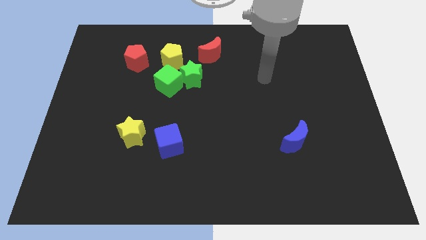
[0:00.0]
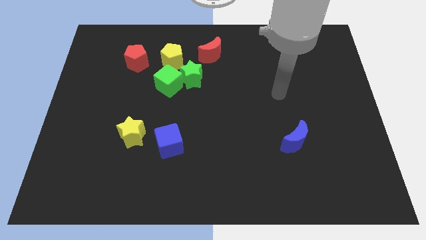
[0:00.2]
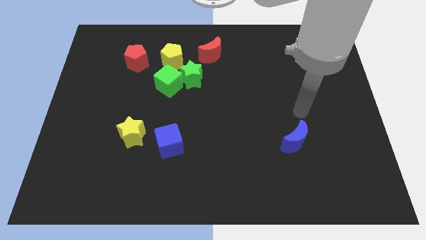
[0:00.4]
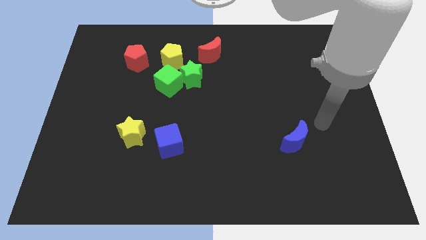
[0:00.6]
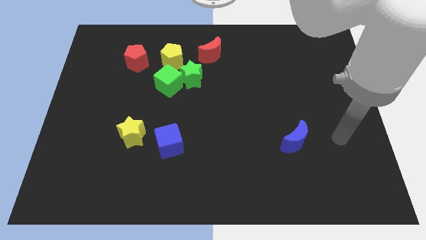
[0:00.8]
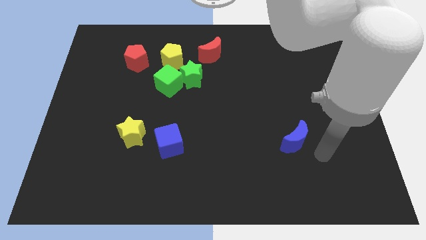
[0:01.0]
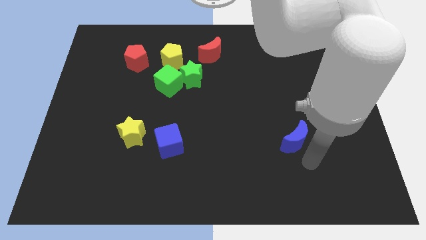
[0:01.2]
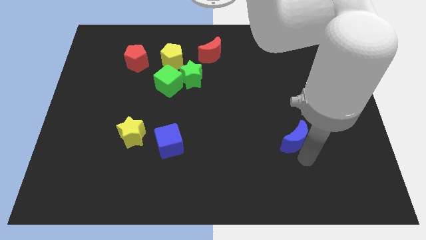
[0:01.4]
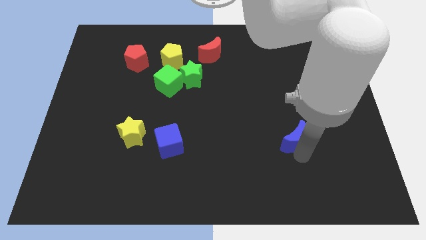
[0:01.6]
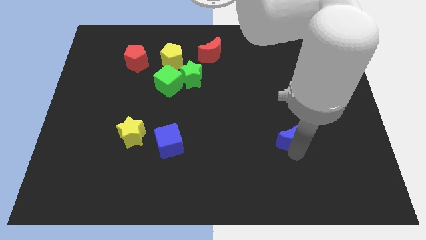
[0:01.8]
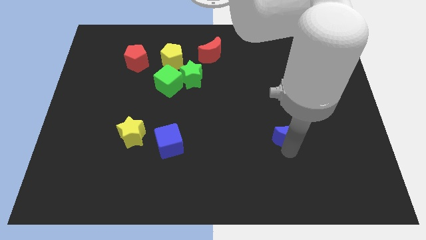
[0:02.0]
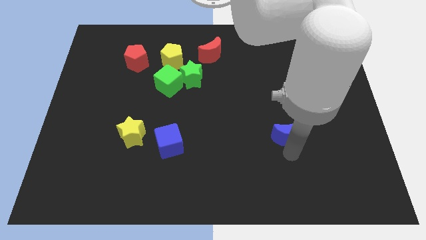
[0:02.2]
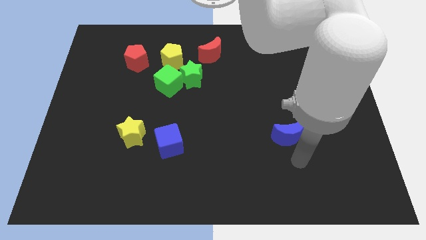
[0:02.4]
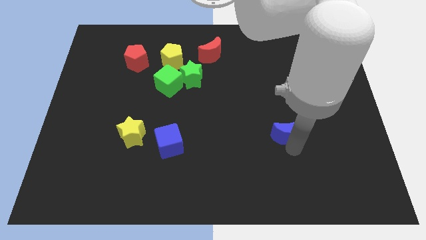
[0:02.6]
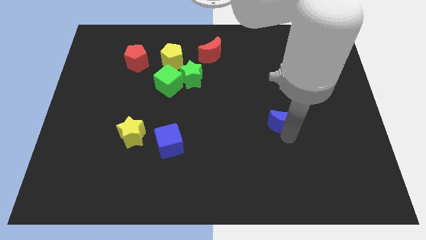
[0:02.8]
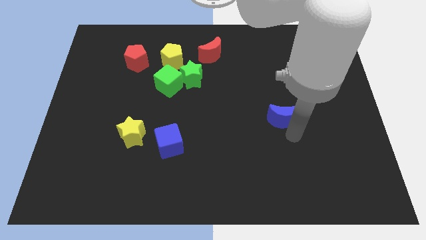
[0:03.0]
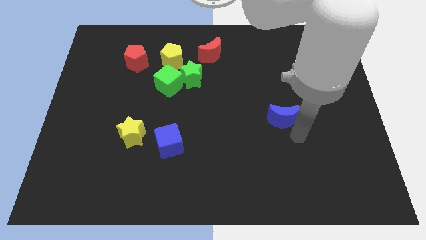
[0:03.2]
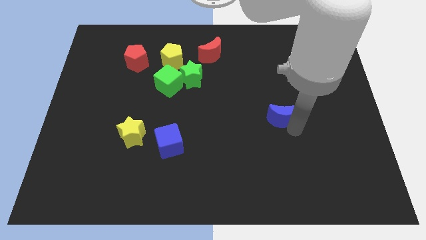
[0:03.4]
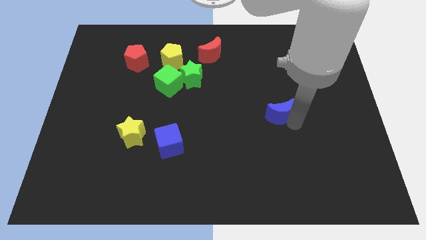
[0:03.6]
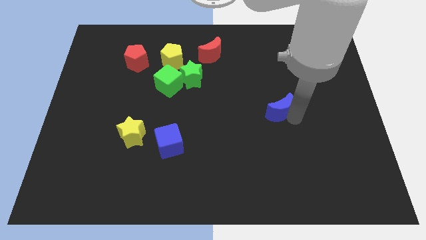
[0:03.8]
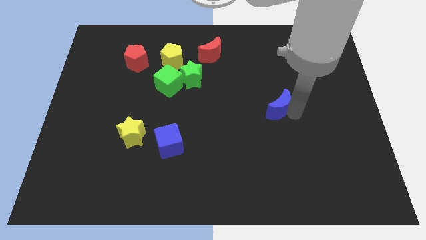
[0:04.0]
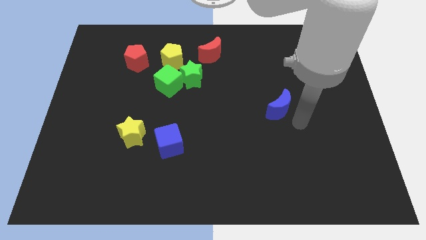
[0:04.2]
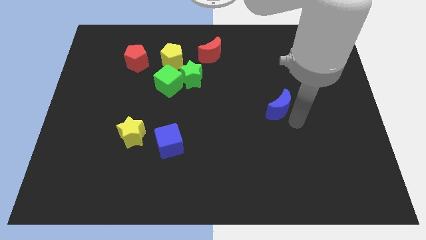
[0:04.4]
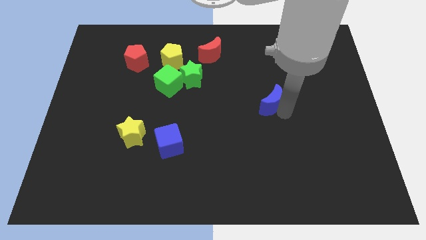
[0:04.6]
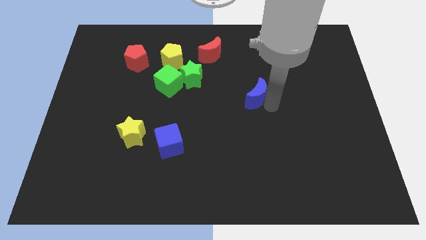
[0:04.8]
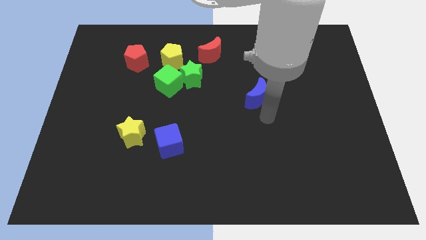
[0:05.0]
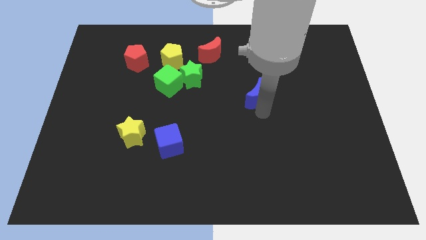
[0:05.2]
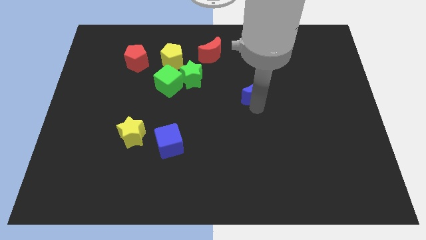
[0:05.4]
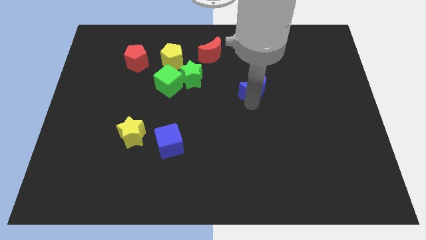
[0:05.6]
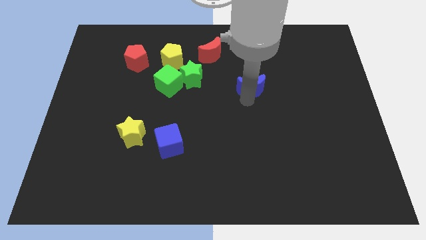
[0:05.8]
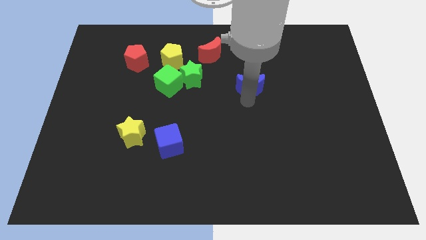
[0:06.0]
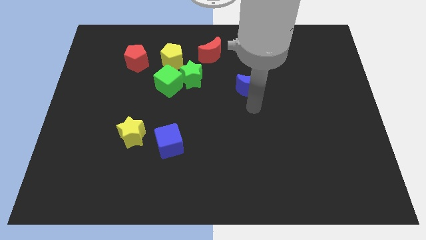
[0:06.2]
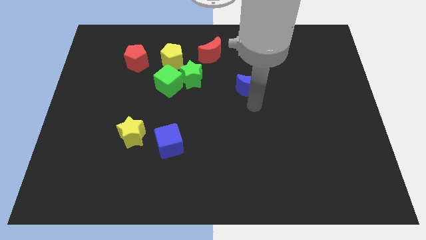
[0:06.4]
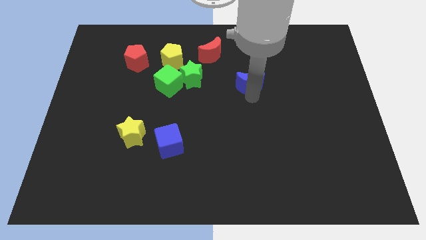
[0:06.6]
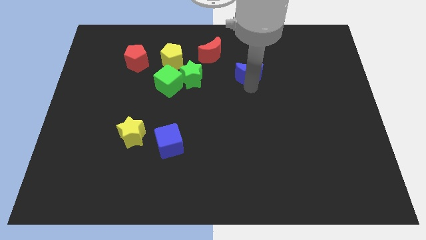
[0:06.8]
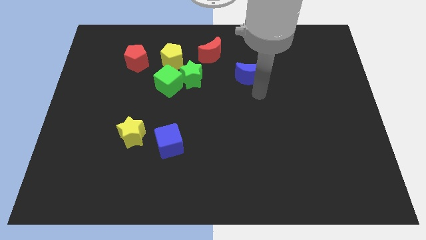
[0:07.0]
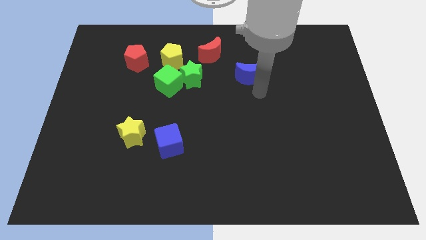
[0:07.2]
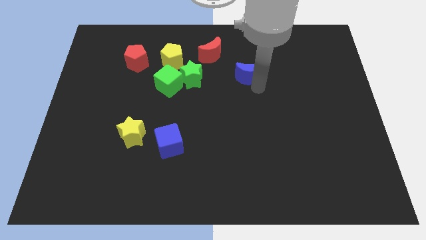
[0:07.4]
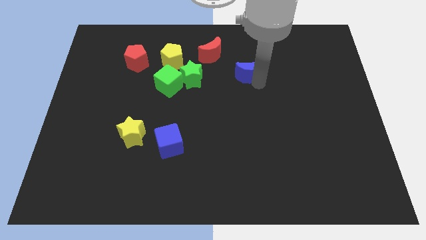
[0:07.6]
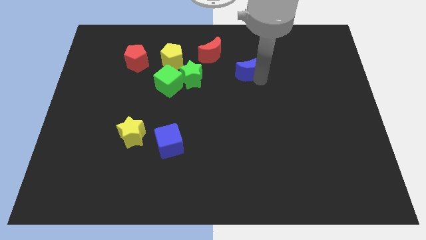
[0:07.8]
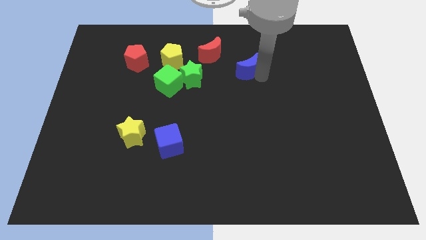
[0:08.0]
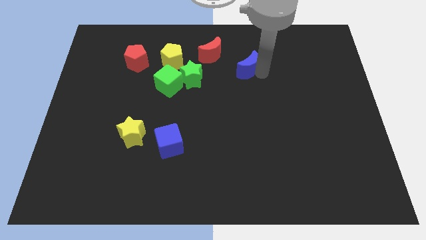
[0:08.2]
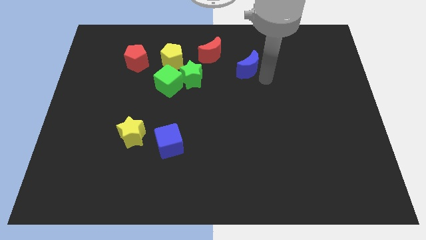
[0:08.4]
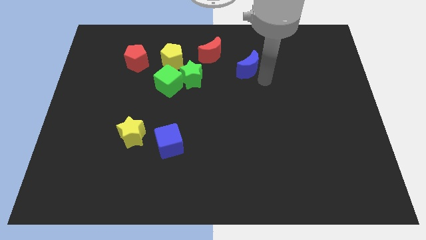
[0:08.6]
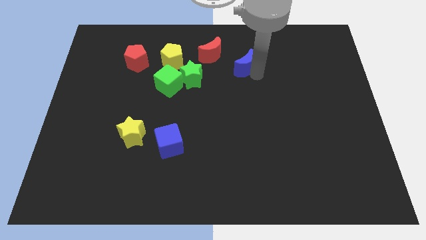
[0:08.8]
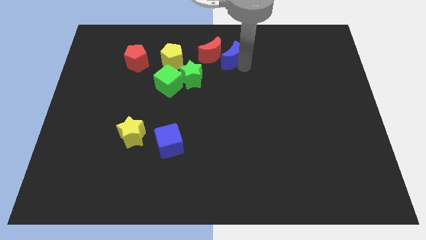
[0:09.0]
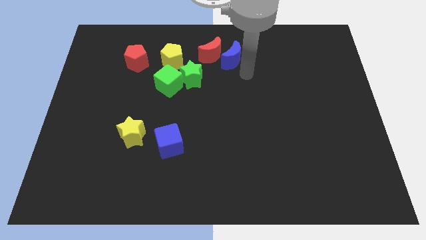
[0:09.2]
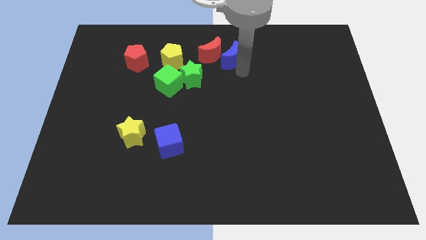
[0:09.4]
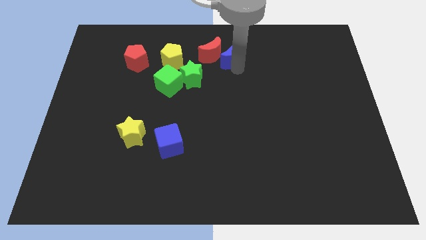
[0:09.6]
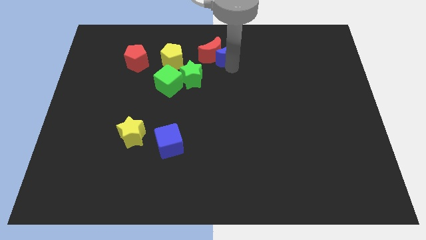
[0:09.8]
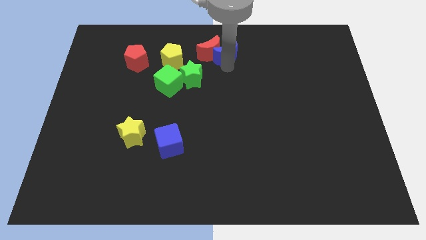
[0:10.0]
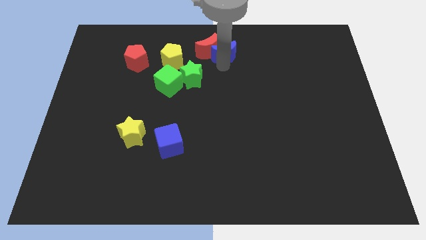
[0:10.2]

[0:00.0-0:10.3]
put the blue moon to the top side

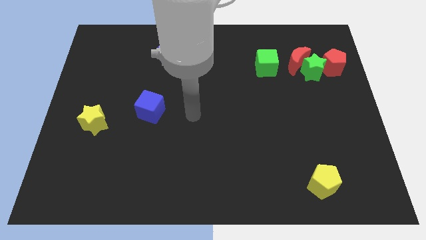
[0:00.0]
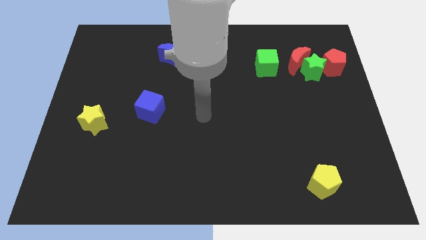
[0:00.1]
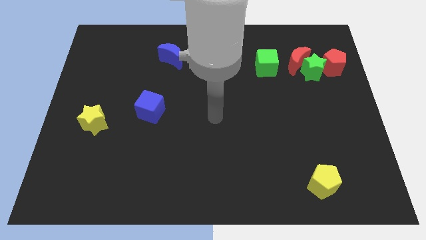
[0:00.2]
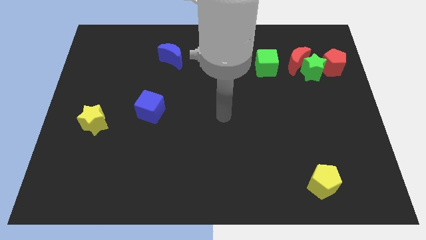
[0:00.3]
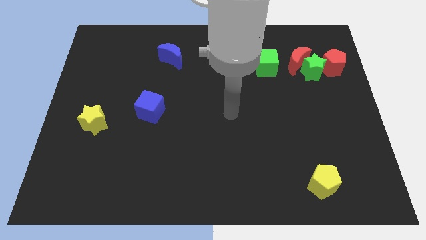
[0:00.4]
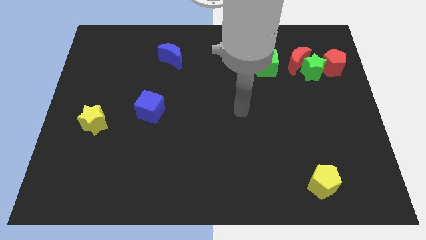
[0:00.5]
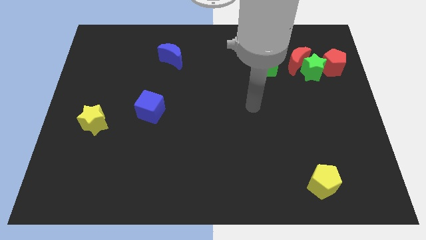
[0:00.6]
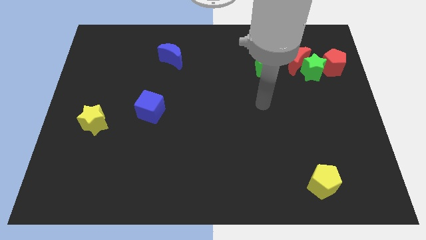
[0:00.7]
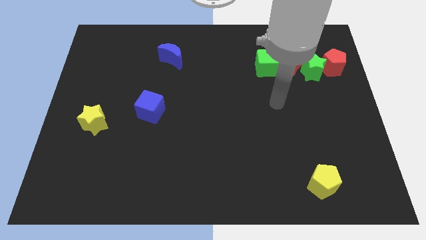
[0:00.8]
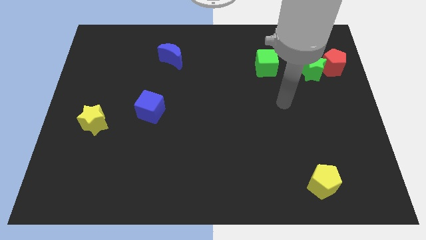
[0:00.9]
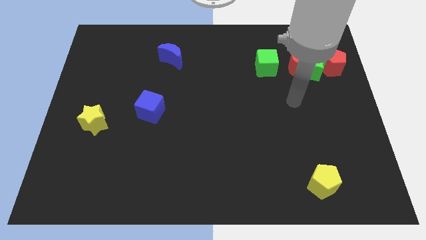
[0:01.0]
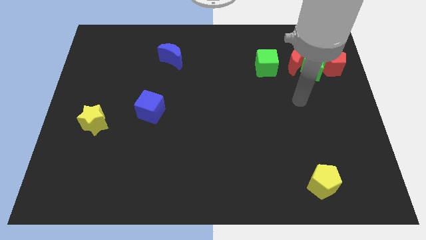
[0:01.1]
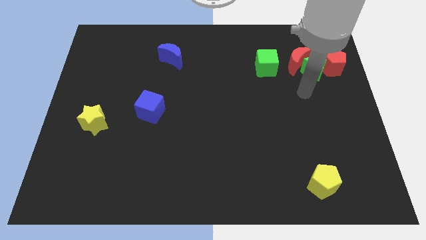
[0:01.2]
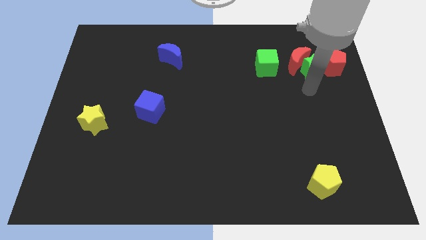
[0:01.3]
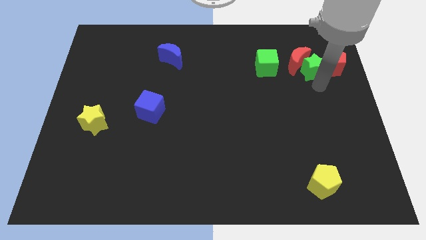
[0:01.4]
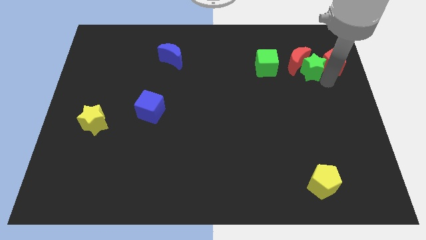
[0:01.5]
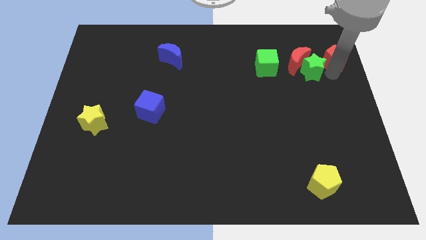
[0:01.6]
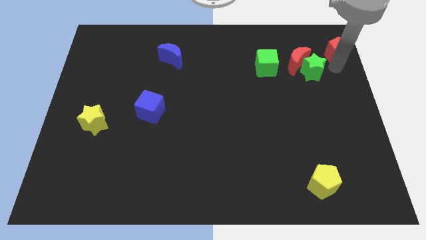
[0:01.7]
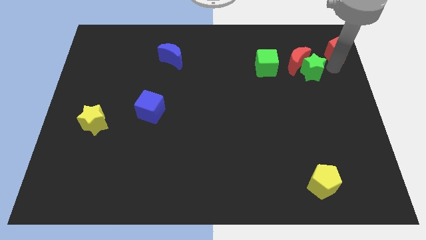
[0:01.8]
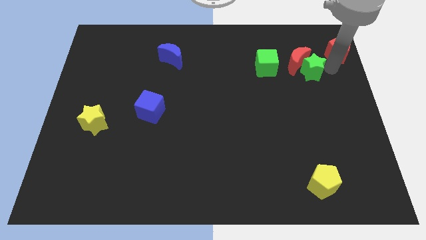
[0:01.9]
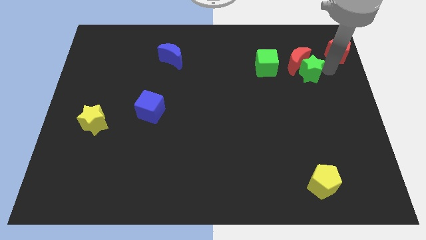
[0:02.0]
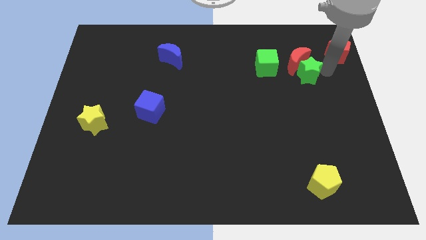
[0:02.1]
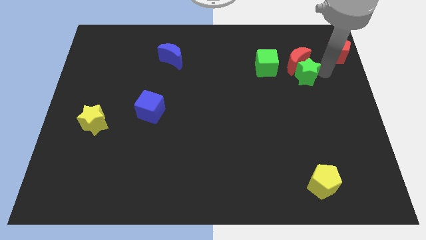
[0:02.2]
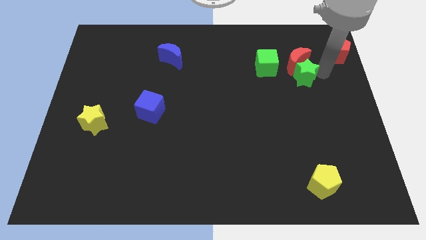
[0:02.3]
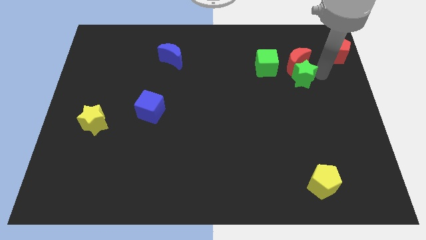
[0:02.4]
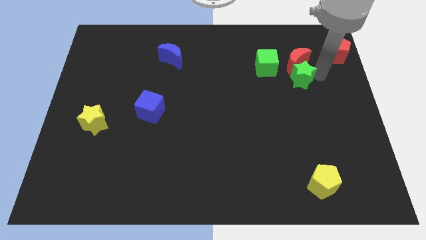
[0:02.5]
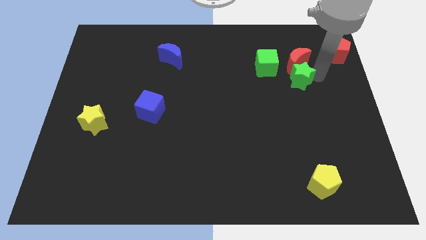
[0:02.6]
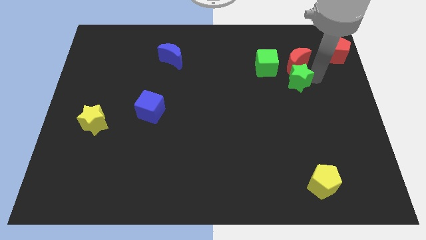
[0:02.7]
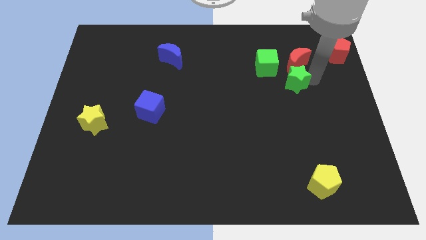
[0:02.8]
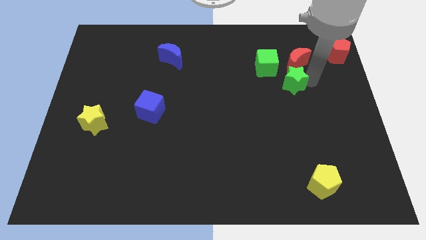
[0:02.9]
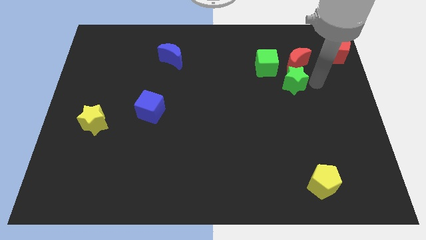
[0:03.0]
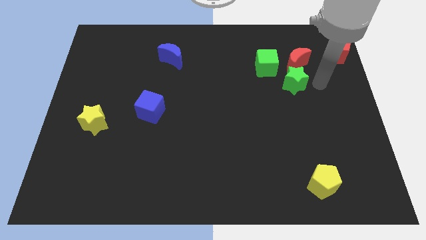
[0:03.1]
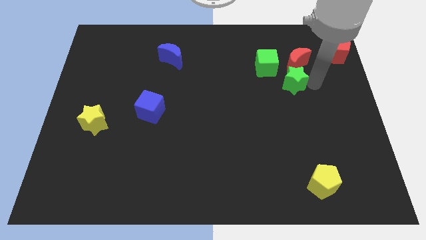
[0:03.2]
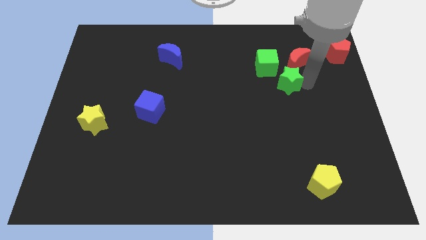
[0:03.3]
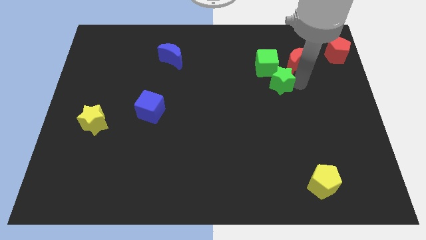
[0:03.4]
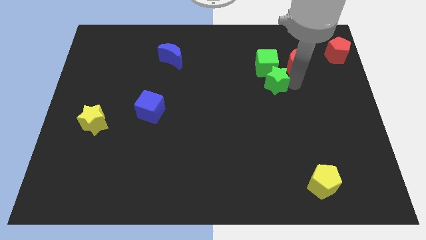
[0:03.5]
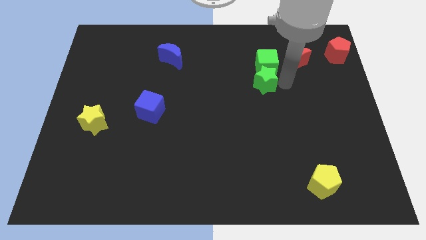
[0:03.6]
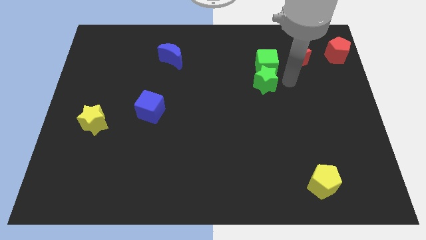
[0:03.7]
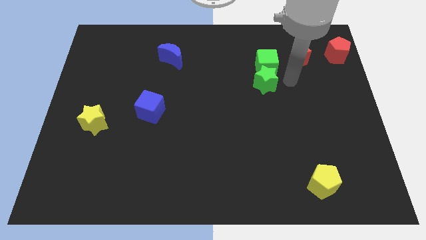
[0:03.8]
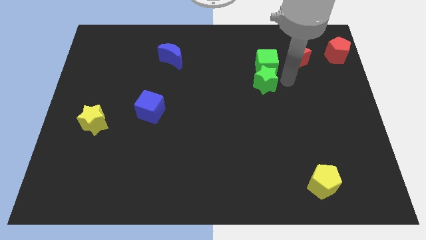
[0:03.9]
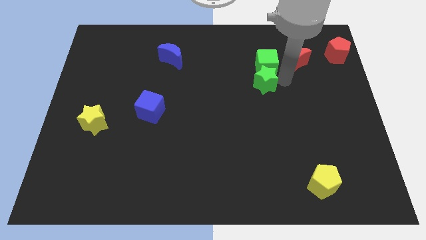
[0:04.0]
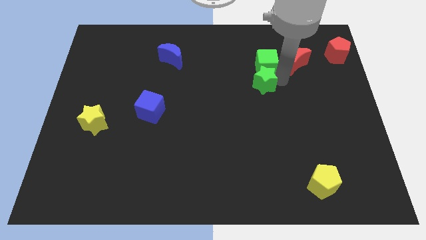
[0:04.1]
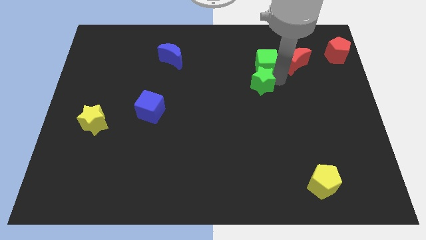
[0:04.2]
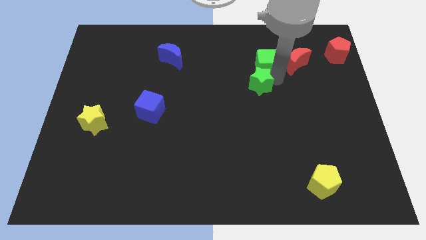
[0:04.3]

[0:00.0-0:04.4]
slide the green star to the middle
